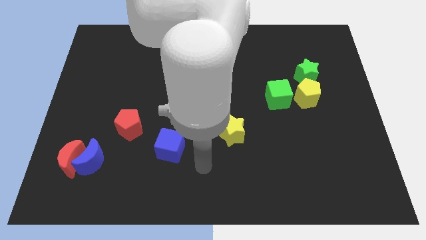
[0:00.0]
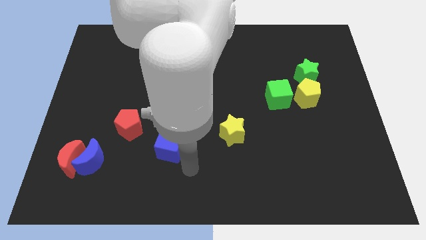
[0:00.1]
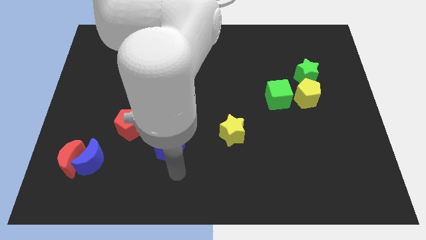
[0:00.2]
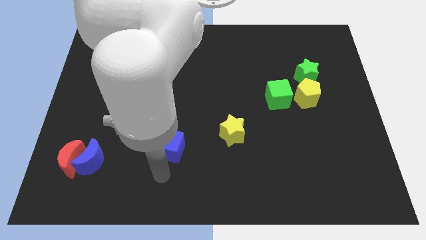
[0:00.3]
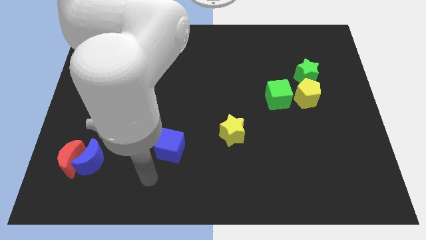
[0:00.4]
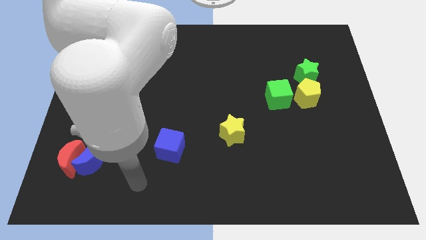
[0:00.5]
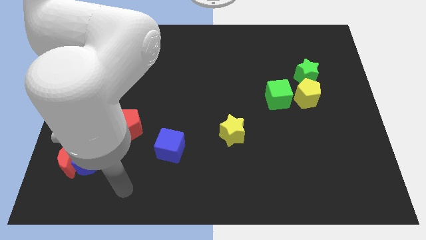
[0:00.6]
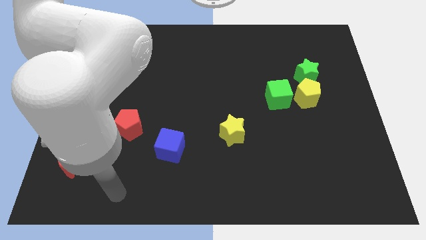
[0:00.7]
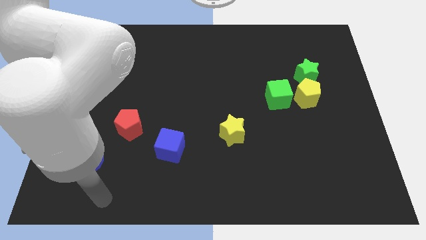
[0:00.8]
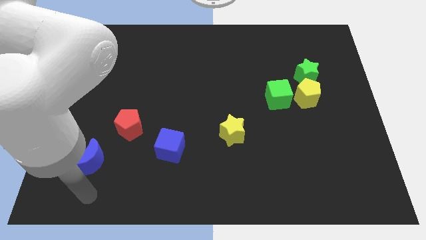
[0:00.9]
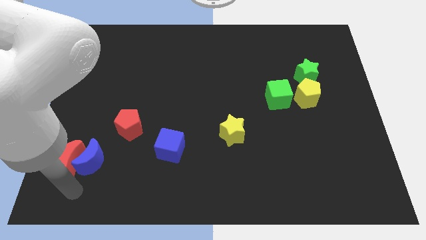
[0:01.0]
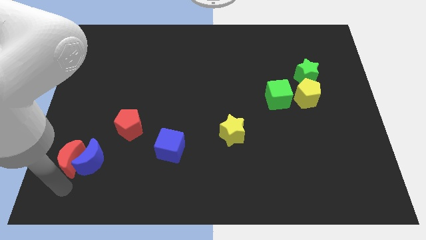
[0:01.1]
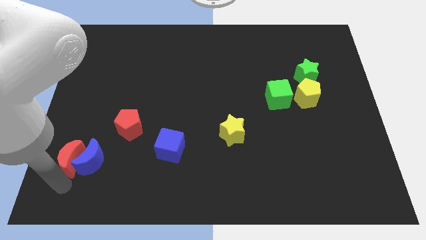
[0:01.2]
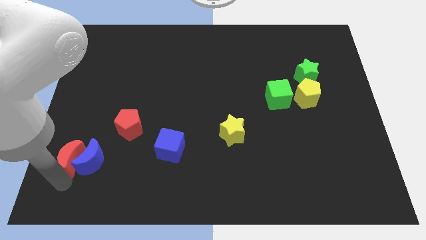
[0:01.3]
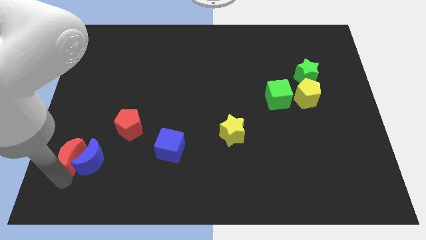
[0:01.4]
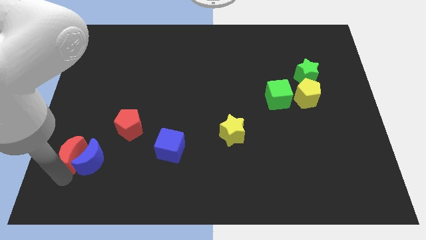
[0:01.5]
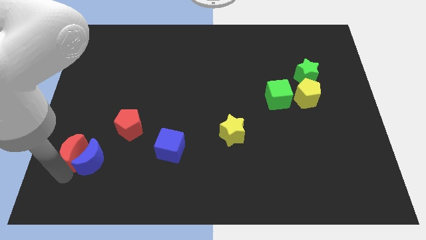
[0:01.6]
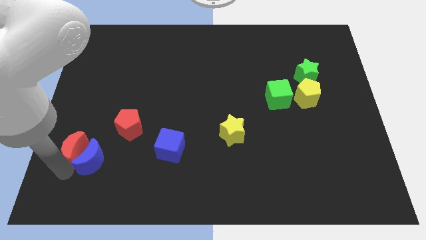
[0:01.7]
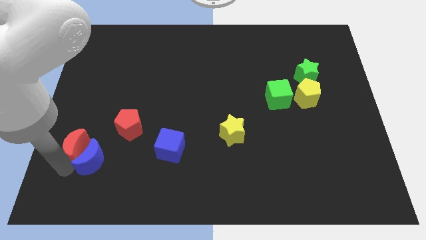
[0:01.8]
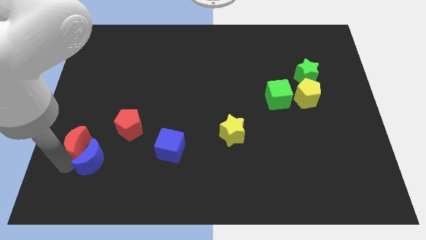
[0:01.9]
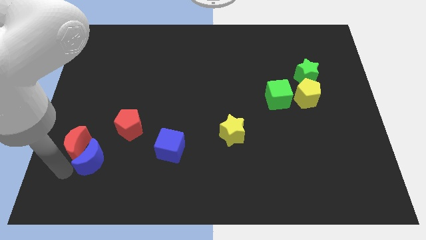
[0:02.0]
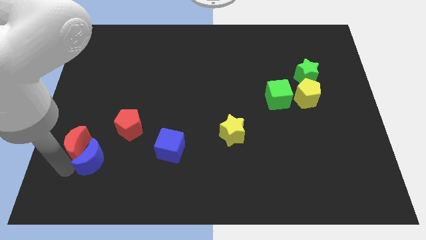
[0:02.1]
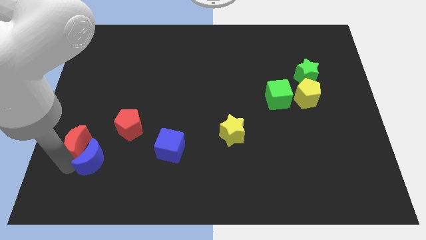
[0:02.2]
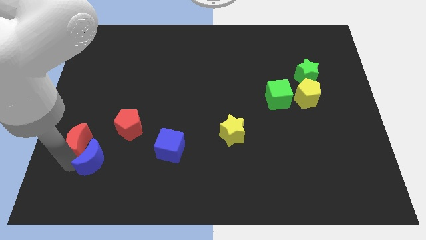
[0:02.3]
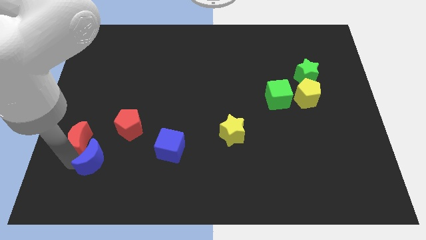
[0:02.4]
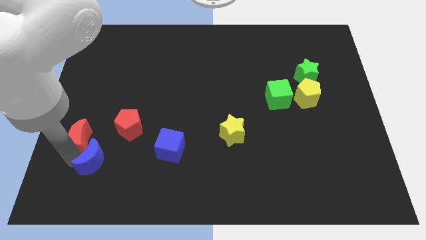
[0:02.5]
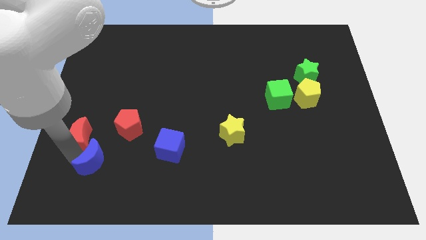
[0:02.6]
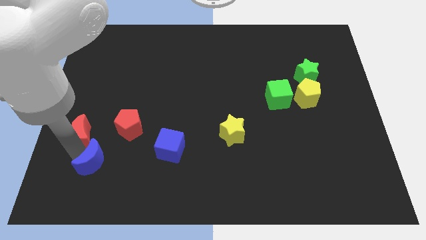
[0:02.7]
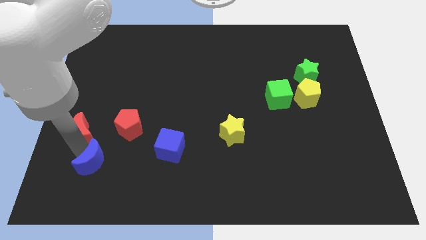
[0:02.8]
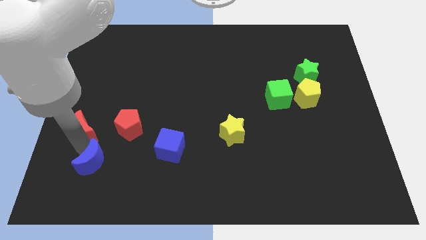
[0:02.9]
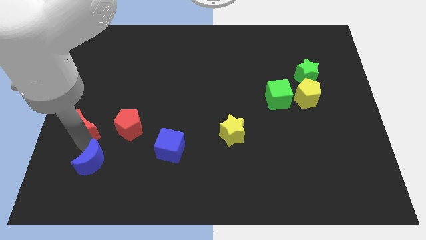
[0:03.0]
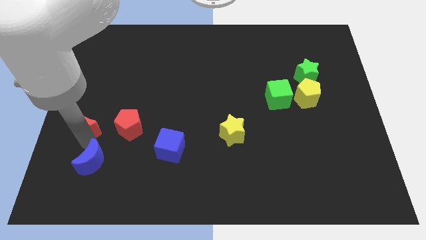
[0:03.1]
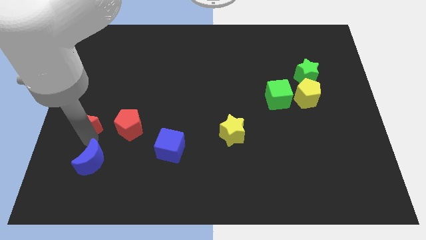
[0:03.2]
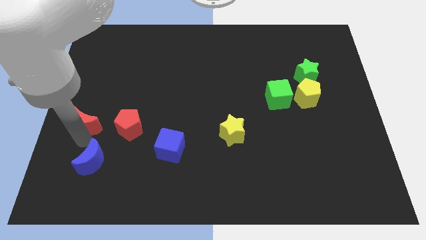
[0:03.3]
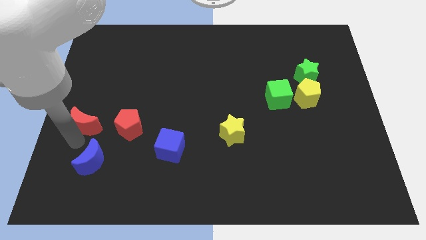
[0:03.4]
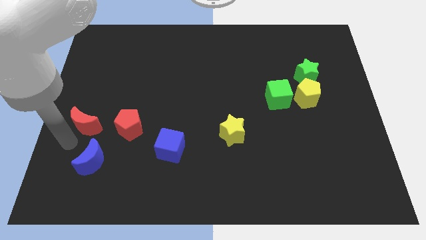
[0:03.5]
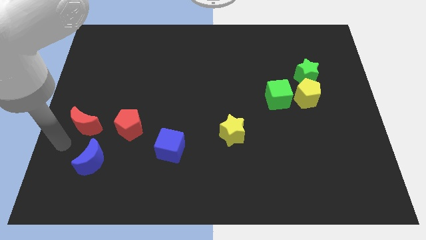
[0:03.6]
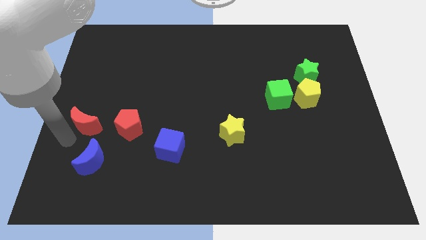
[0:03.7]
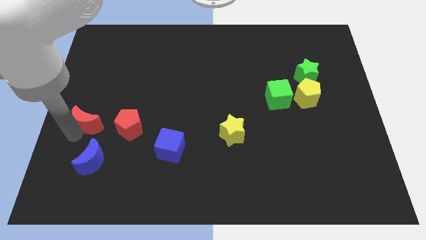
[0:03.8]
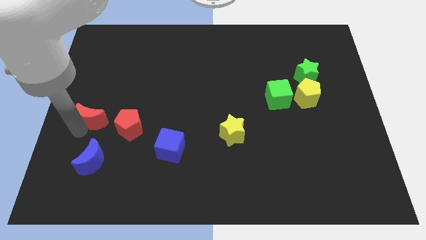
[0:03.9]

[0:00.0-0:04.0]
push the red moon up and right diagonally a bit

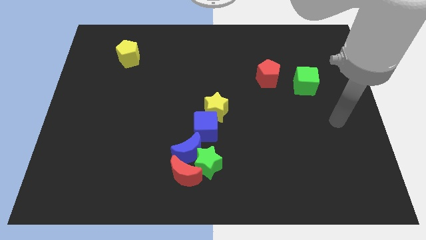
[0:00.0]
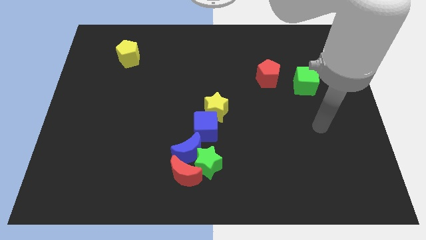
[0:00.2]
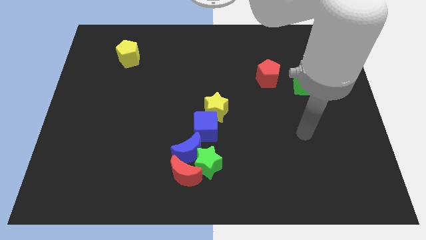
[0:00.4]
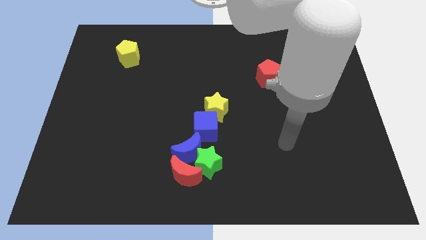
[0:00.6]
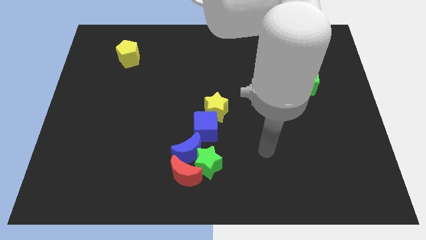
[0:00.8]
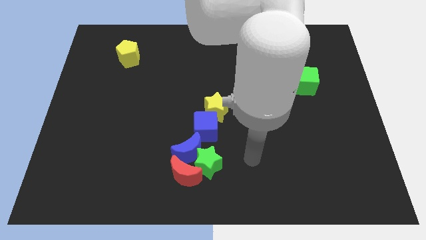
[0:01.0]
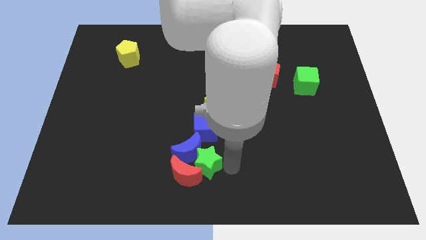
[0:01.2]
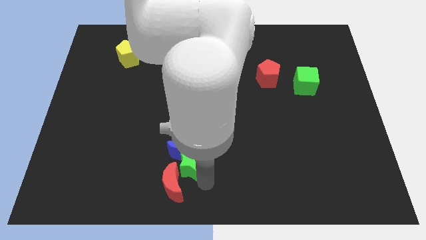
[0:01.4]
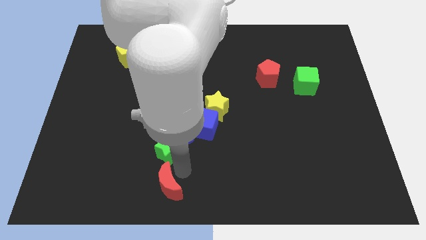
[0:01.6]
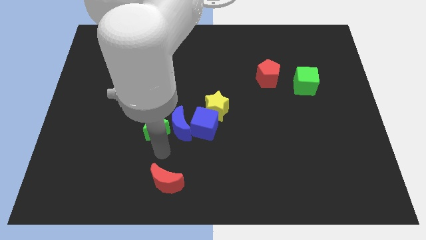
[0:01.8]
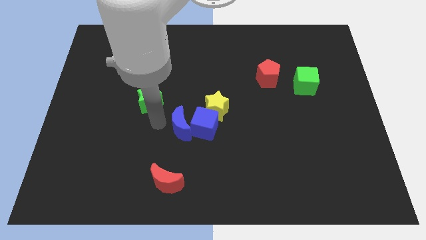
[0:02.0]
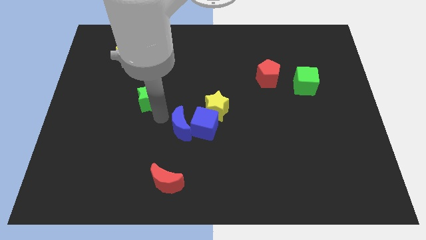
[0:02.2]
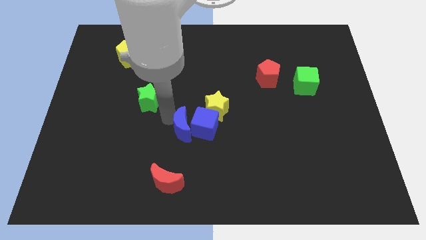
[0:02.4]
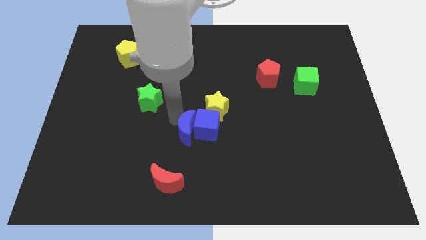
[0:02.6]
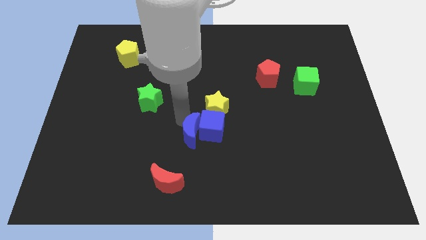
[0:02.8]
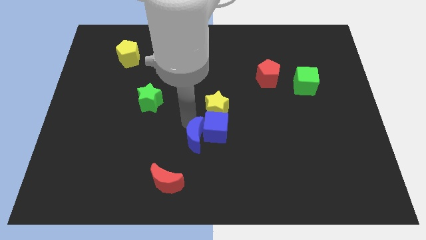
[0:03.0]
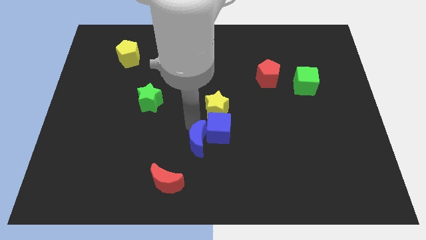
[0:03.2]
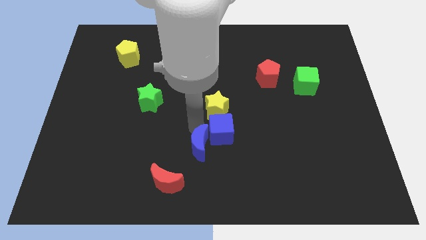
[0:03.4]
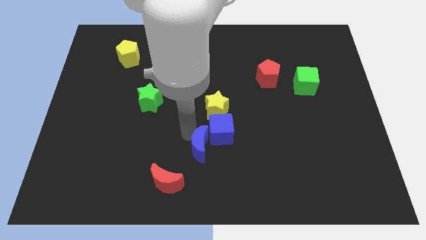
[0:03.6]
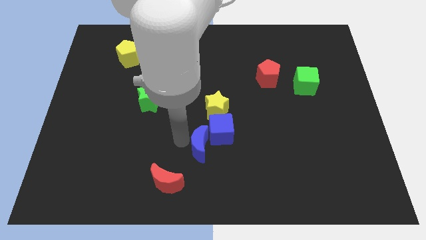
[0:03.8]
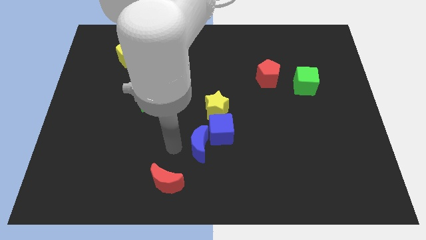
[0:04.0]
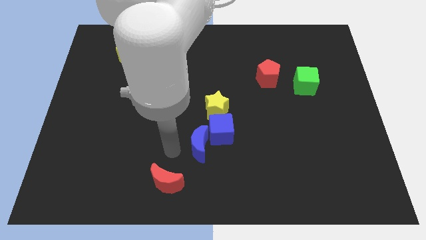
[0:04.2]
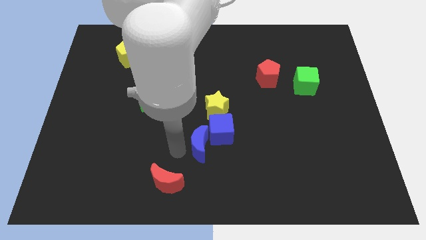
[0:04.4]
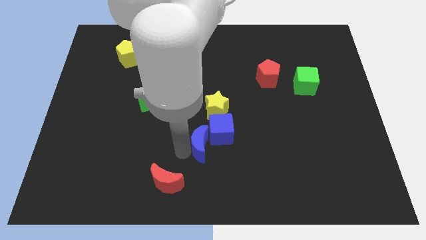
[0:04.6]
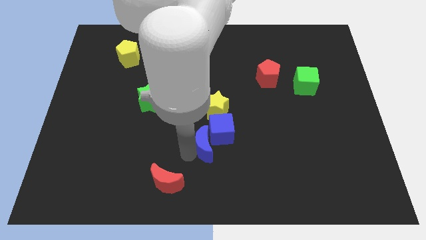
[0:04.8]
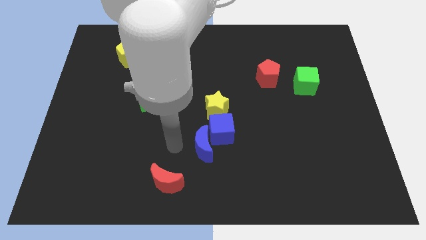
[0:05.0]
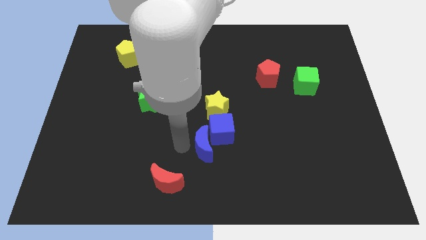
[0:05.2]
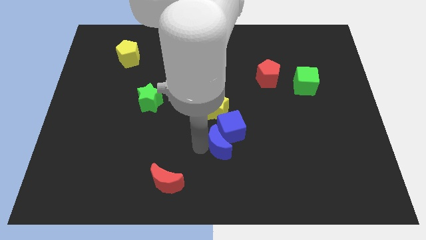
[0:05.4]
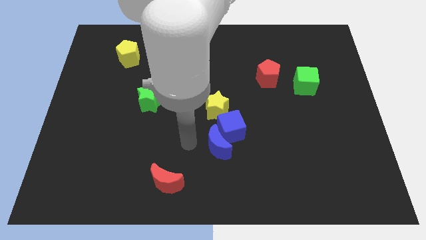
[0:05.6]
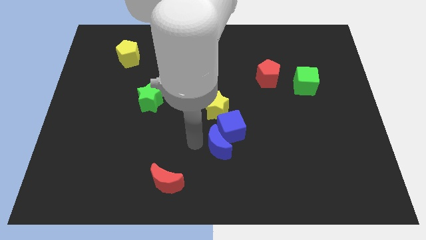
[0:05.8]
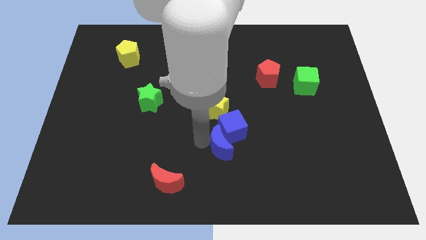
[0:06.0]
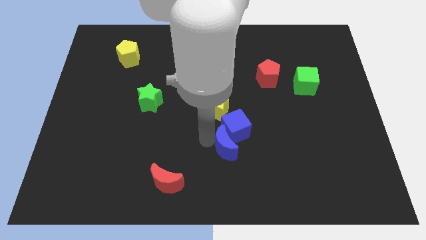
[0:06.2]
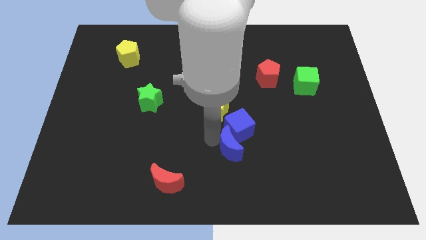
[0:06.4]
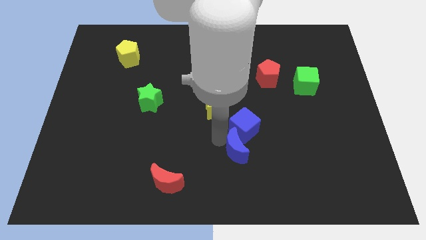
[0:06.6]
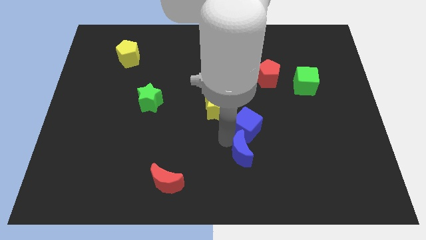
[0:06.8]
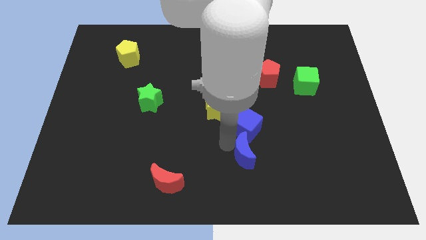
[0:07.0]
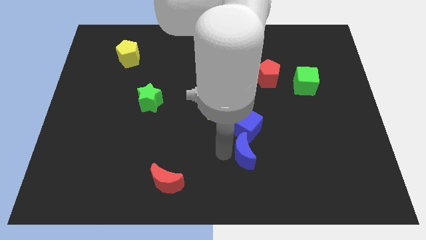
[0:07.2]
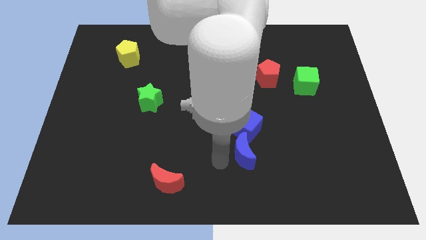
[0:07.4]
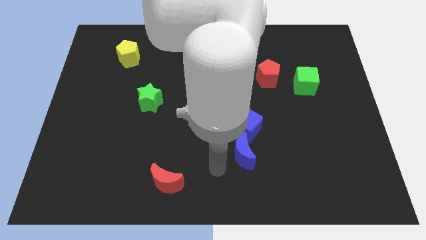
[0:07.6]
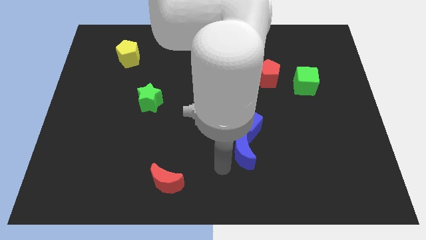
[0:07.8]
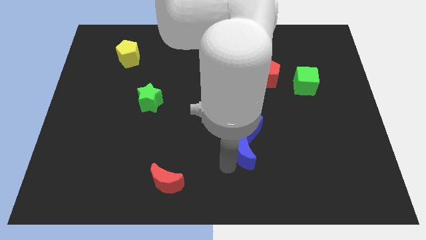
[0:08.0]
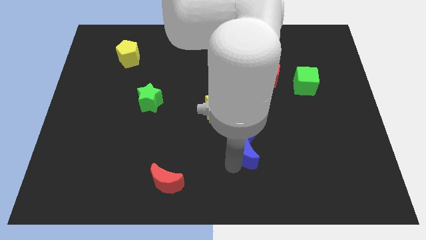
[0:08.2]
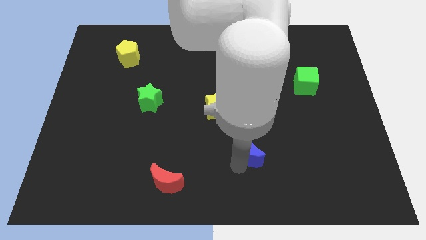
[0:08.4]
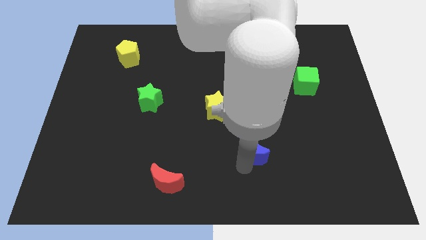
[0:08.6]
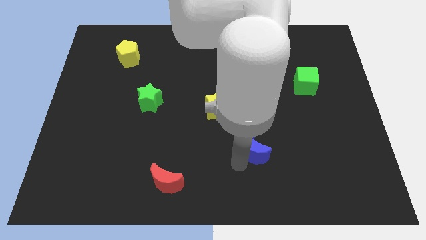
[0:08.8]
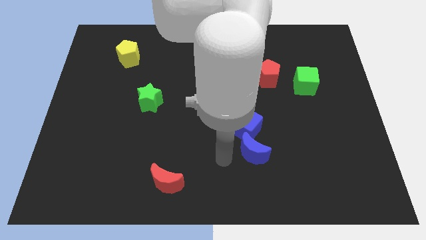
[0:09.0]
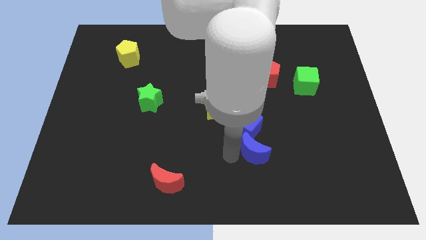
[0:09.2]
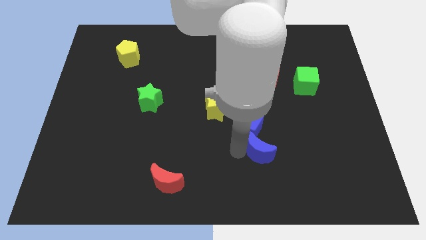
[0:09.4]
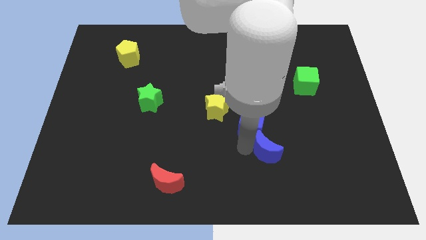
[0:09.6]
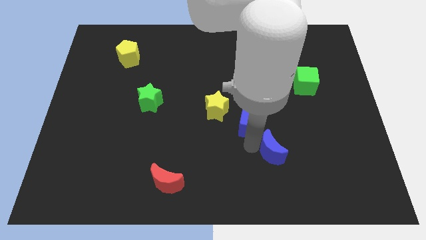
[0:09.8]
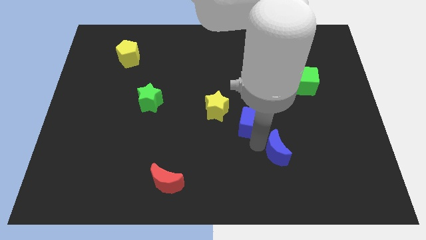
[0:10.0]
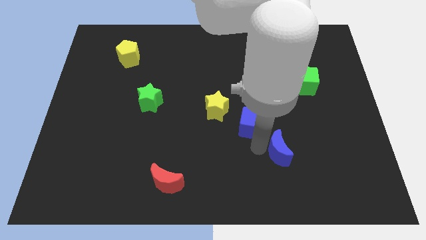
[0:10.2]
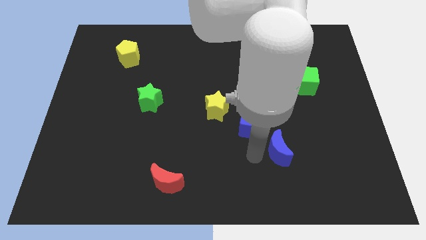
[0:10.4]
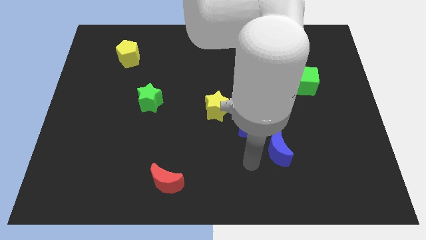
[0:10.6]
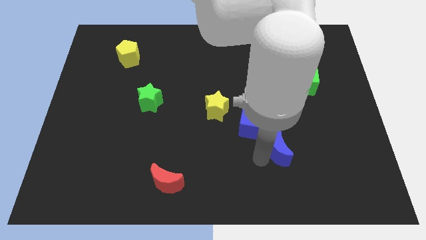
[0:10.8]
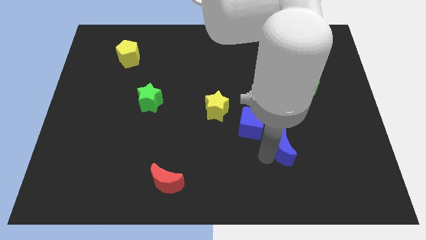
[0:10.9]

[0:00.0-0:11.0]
push the blue moon to the right
